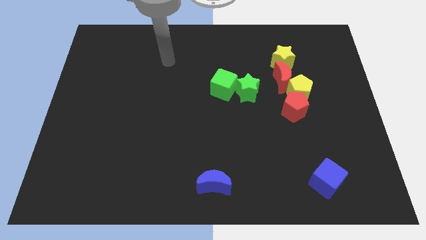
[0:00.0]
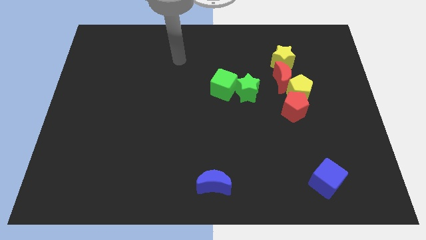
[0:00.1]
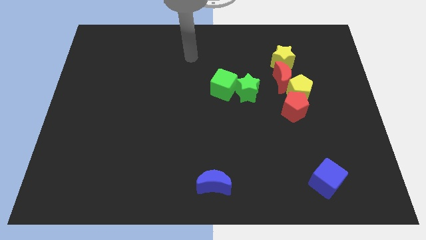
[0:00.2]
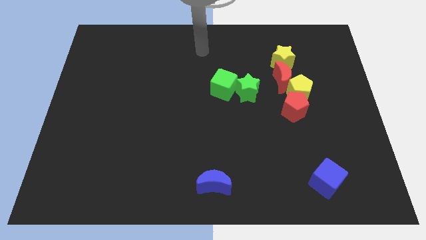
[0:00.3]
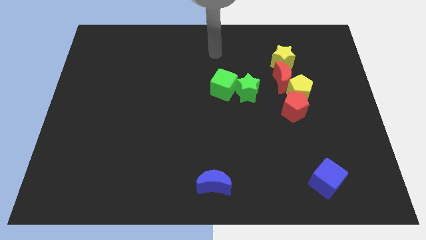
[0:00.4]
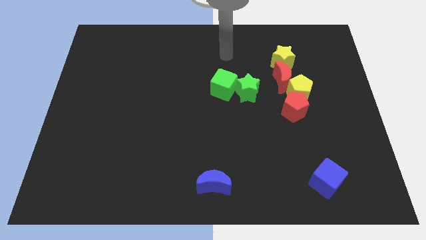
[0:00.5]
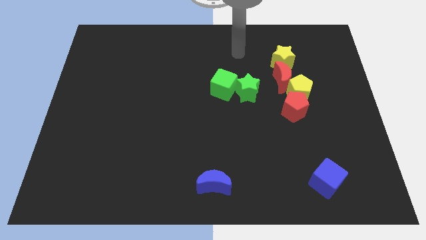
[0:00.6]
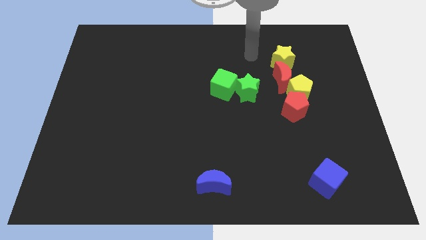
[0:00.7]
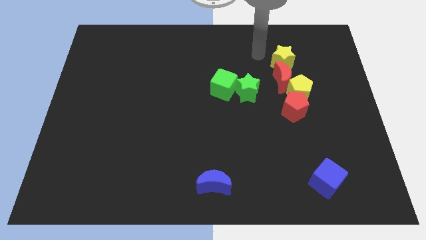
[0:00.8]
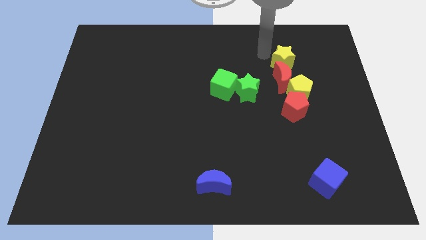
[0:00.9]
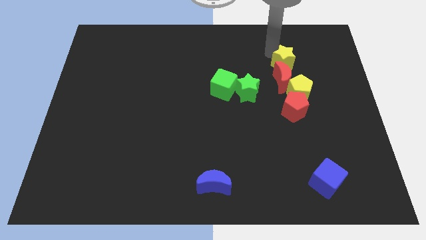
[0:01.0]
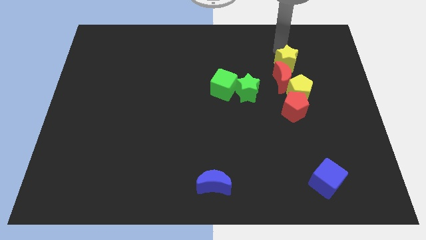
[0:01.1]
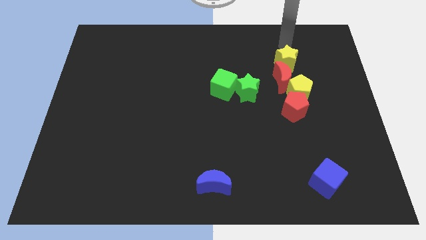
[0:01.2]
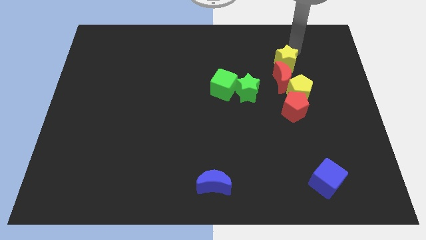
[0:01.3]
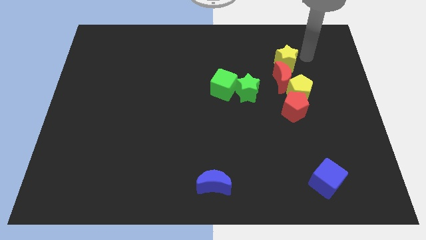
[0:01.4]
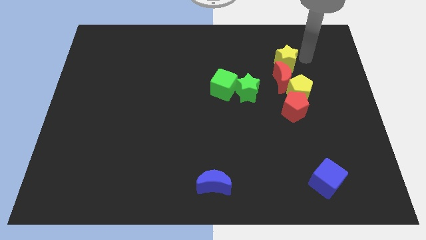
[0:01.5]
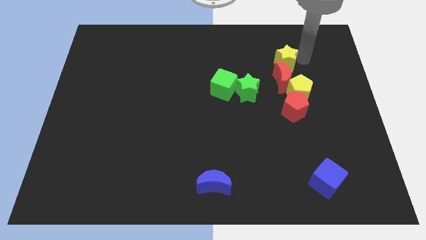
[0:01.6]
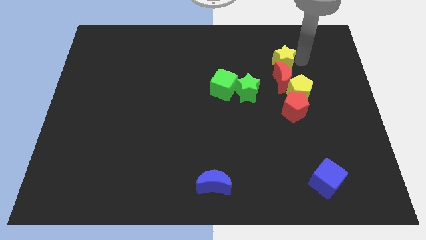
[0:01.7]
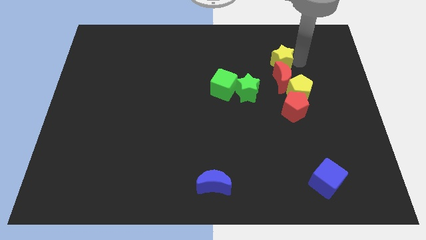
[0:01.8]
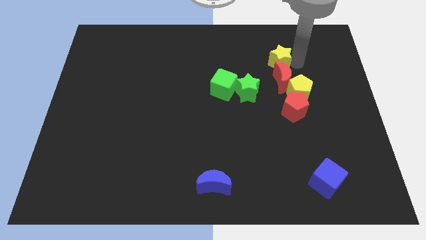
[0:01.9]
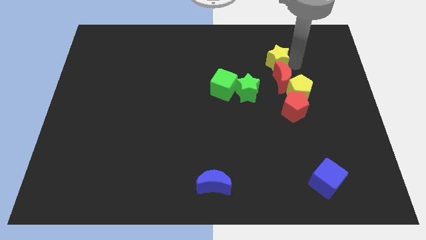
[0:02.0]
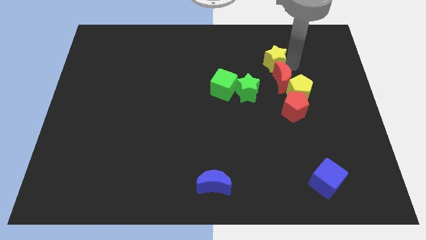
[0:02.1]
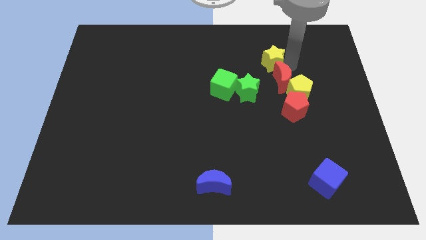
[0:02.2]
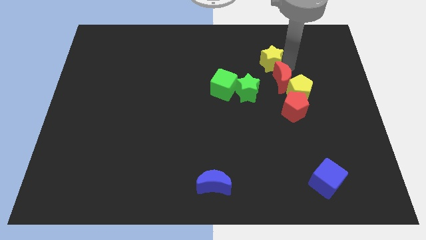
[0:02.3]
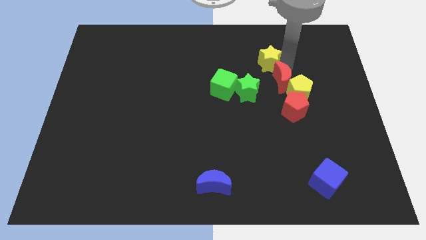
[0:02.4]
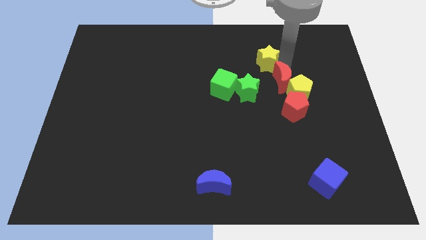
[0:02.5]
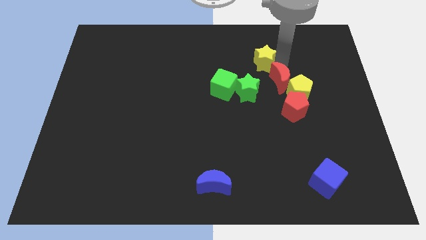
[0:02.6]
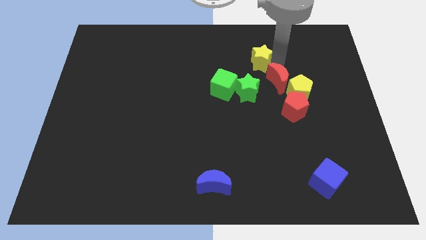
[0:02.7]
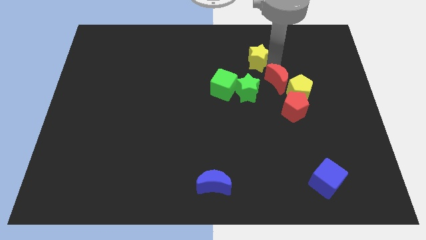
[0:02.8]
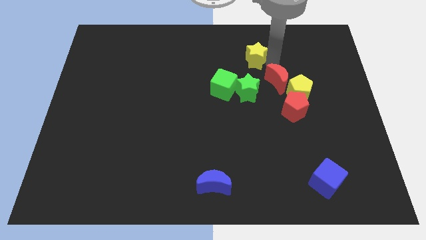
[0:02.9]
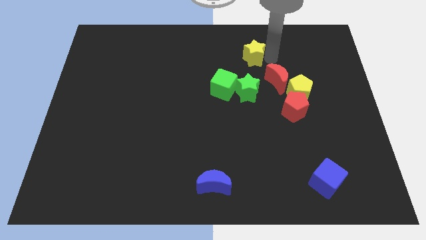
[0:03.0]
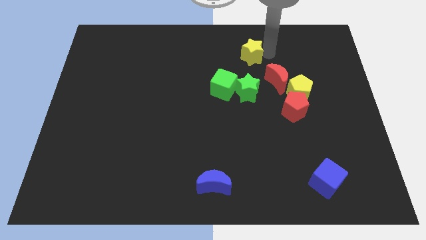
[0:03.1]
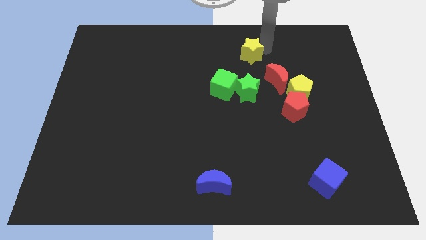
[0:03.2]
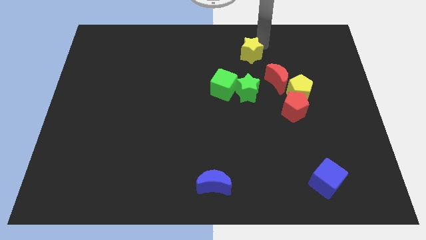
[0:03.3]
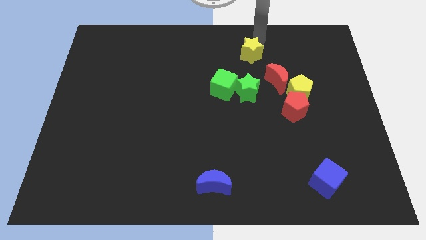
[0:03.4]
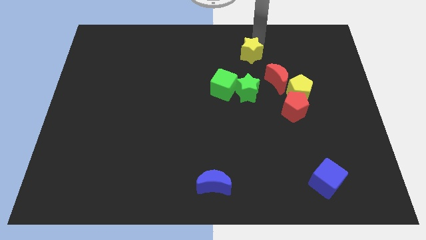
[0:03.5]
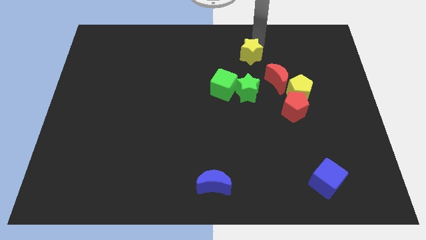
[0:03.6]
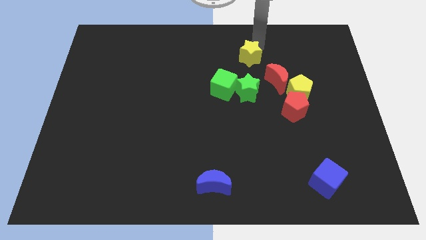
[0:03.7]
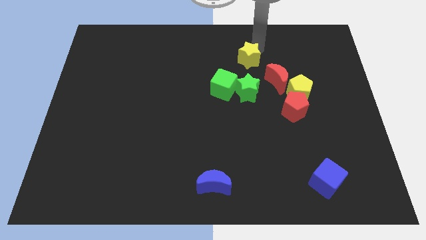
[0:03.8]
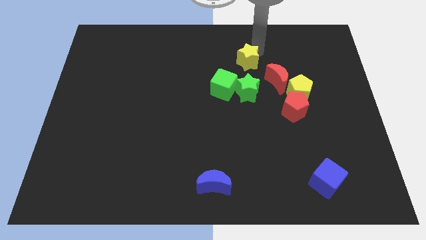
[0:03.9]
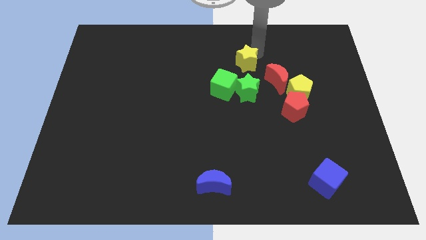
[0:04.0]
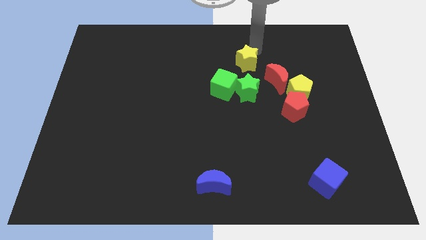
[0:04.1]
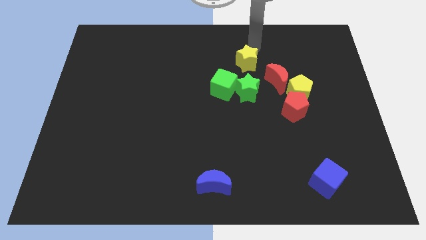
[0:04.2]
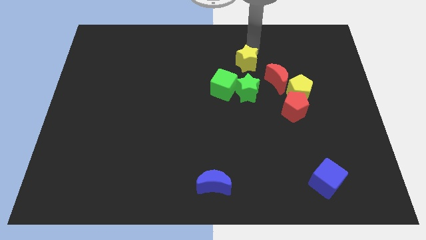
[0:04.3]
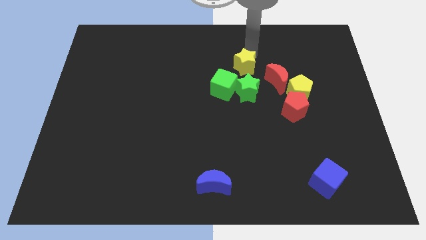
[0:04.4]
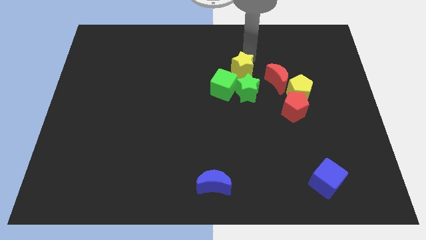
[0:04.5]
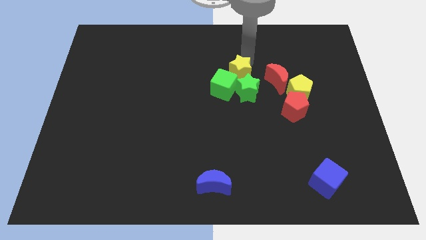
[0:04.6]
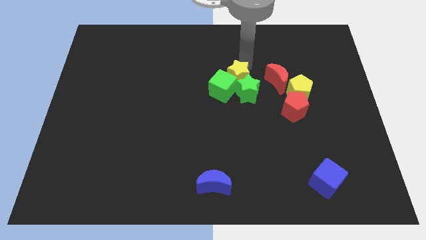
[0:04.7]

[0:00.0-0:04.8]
slide the yellow star close to the green cube

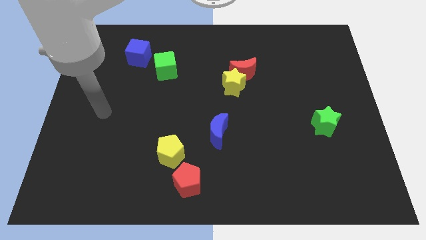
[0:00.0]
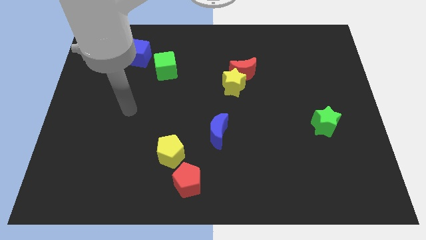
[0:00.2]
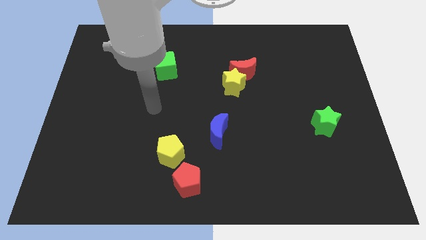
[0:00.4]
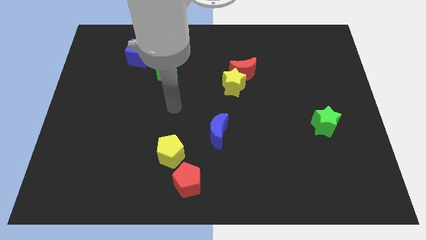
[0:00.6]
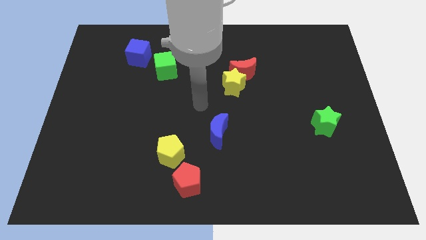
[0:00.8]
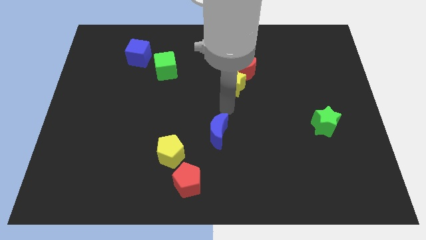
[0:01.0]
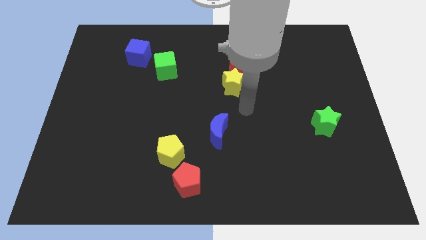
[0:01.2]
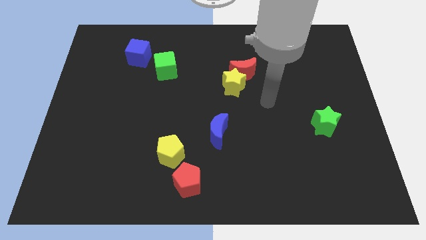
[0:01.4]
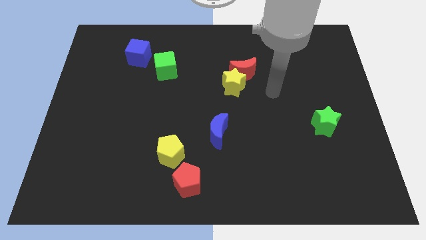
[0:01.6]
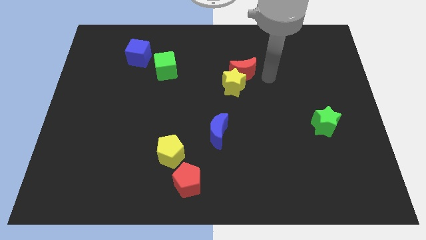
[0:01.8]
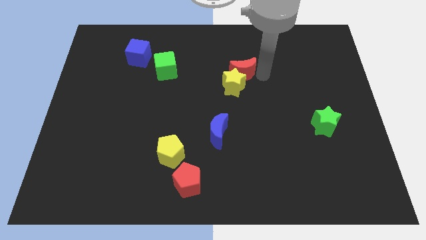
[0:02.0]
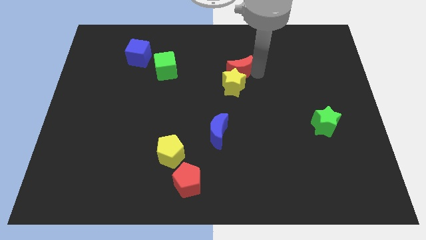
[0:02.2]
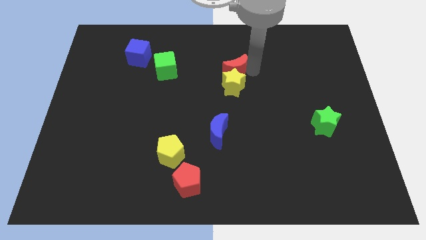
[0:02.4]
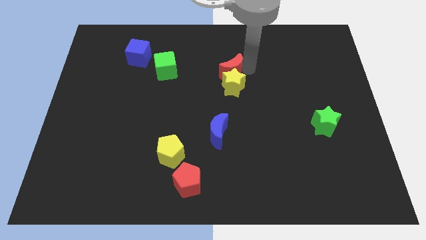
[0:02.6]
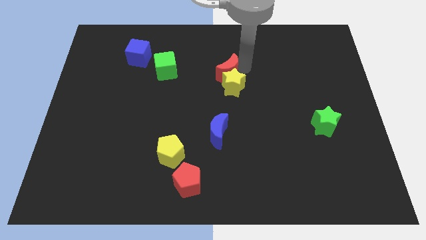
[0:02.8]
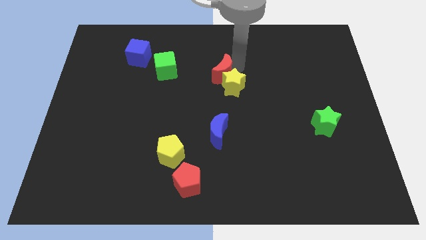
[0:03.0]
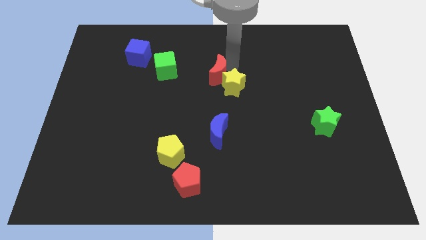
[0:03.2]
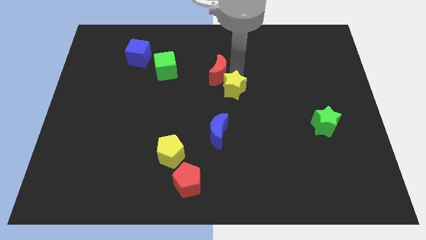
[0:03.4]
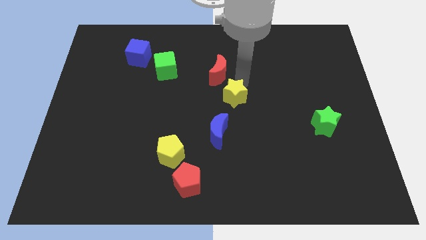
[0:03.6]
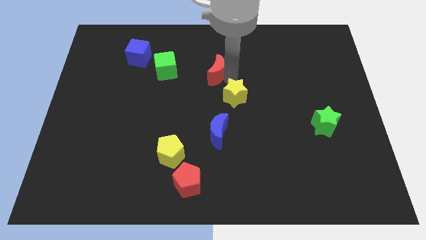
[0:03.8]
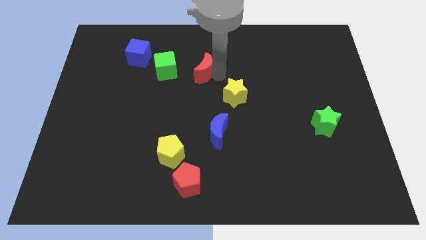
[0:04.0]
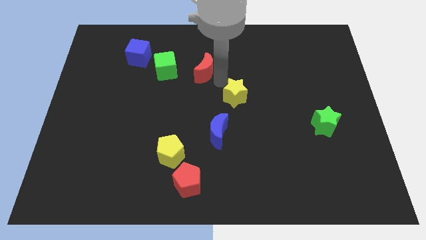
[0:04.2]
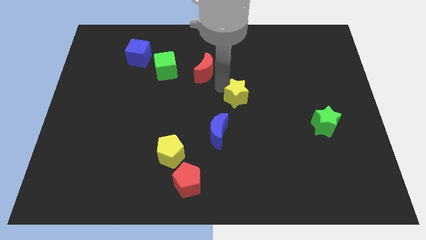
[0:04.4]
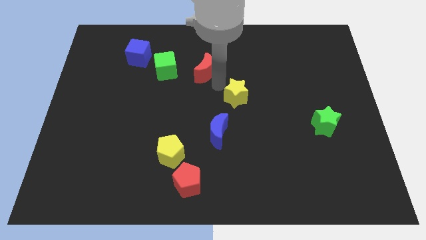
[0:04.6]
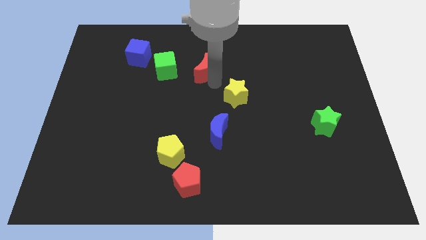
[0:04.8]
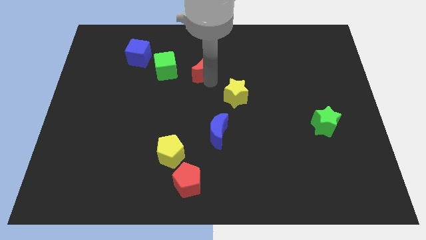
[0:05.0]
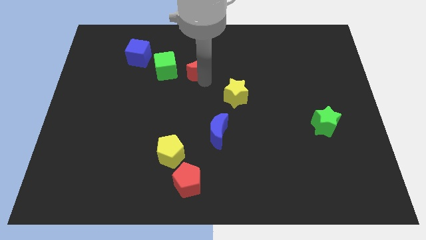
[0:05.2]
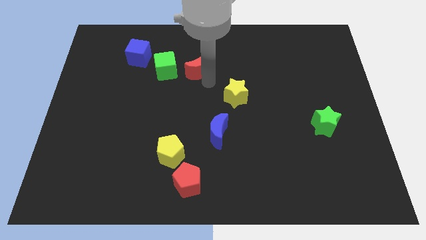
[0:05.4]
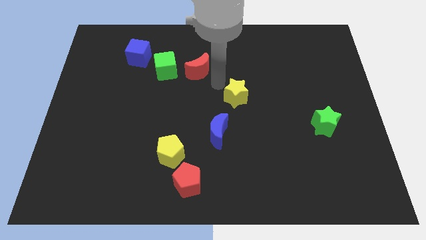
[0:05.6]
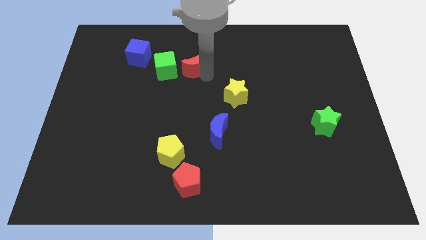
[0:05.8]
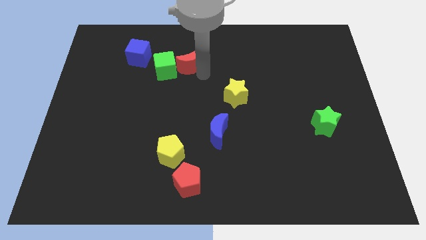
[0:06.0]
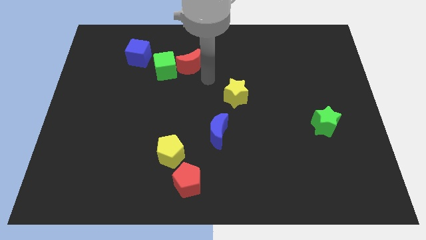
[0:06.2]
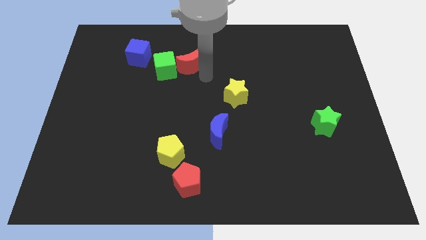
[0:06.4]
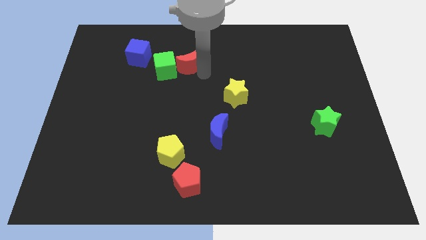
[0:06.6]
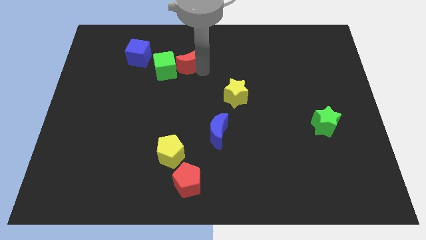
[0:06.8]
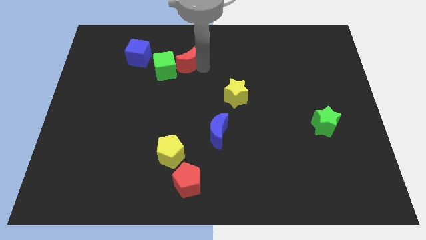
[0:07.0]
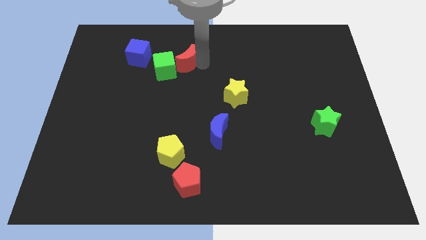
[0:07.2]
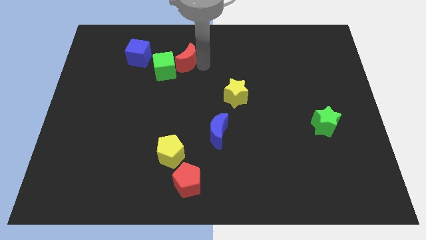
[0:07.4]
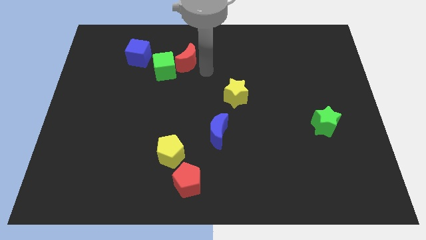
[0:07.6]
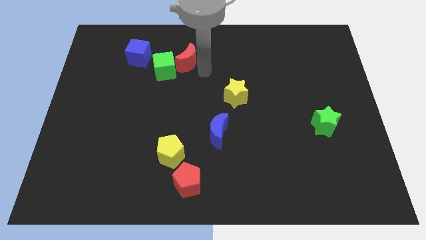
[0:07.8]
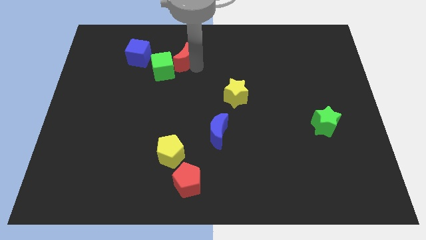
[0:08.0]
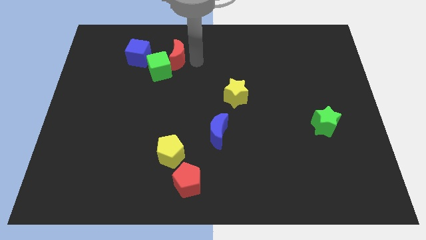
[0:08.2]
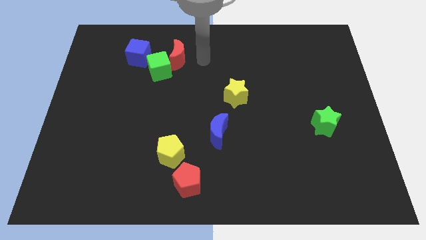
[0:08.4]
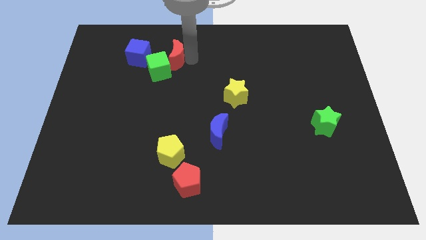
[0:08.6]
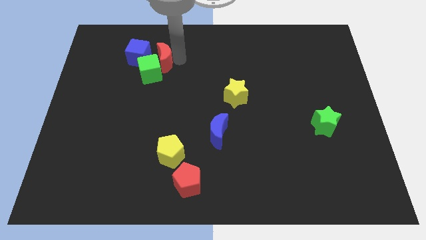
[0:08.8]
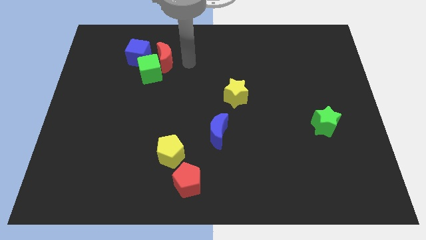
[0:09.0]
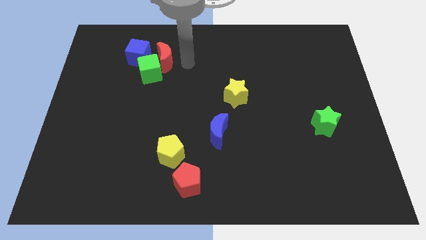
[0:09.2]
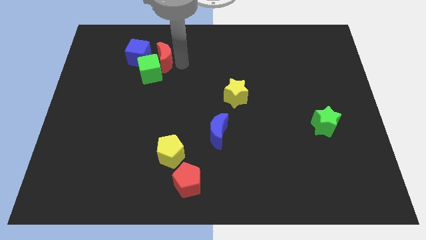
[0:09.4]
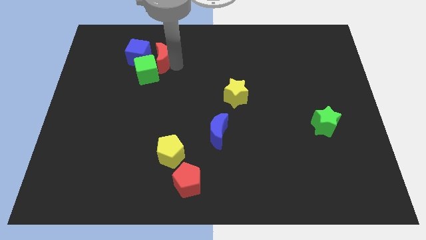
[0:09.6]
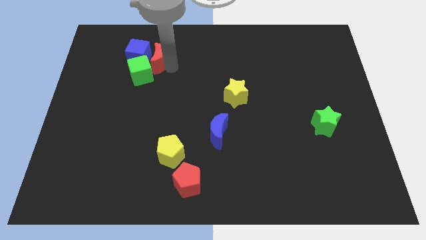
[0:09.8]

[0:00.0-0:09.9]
push the red moon close to the blue cube
